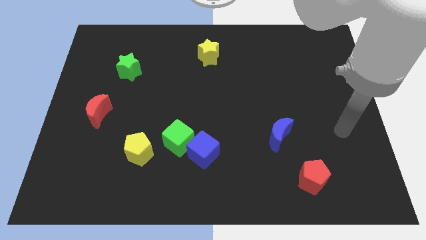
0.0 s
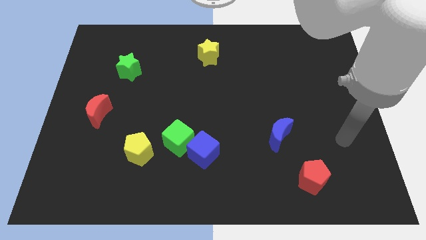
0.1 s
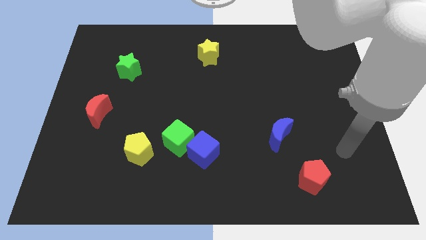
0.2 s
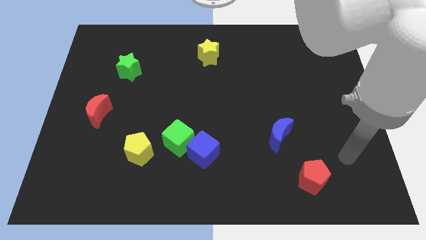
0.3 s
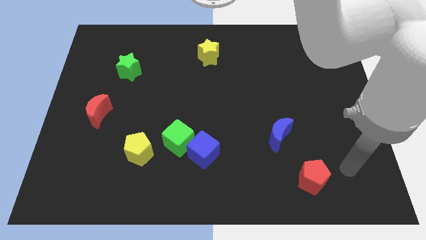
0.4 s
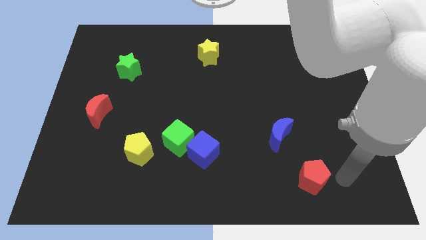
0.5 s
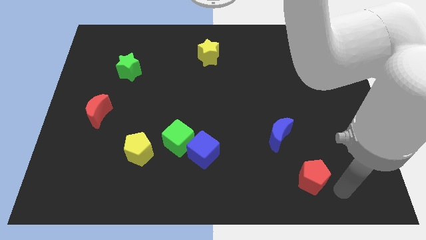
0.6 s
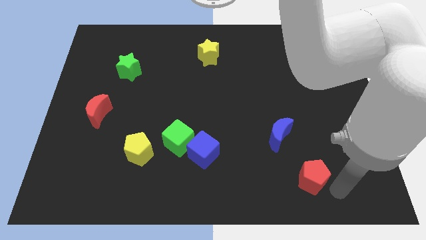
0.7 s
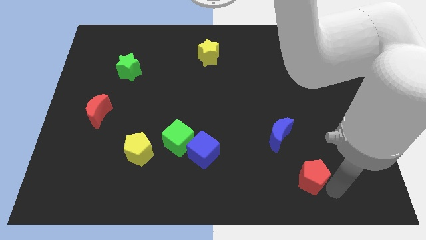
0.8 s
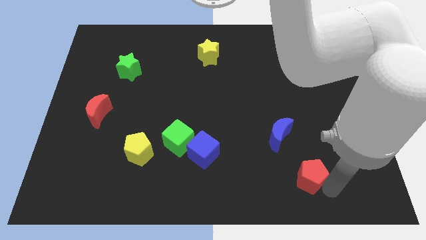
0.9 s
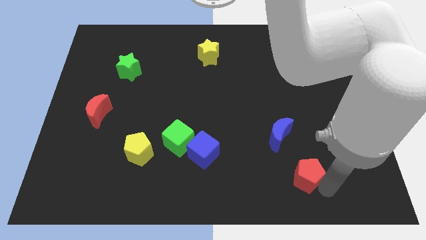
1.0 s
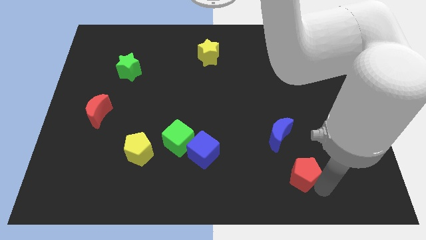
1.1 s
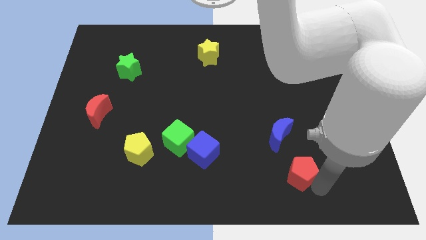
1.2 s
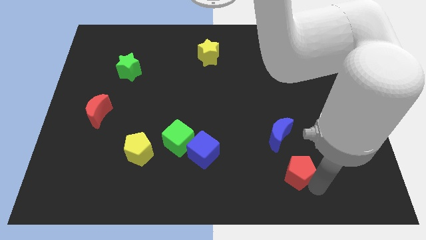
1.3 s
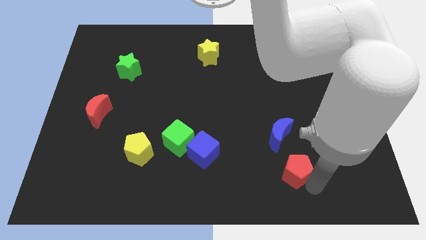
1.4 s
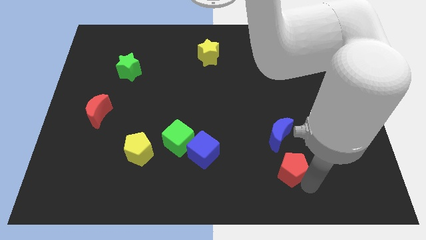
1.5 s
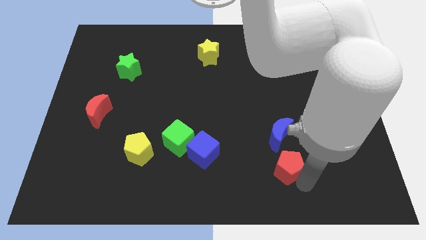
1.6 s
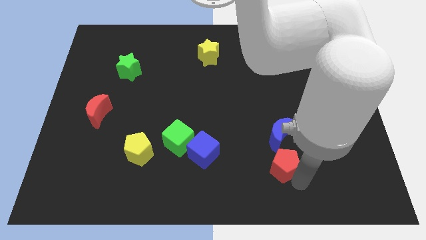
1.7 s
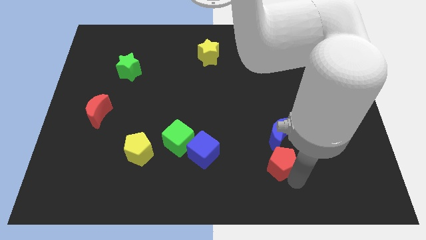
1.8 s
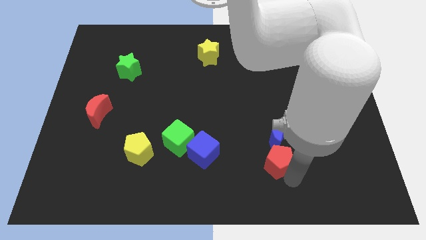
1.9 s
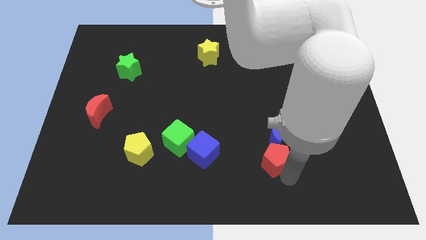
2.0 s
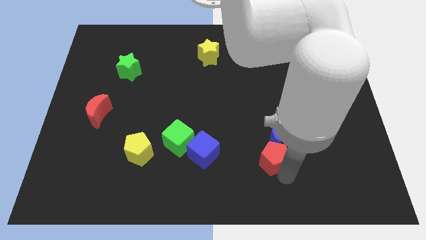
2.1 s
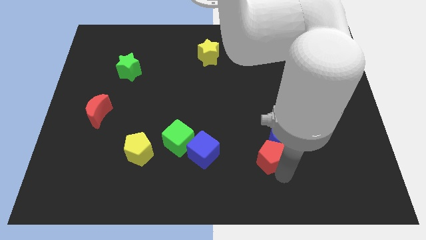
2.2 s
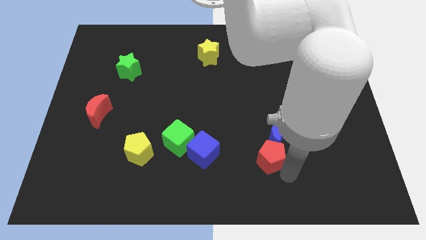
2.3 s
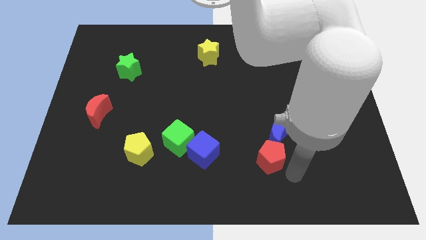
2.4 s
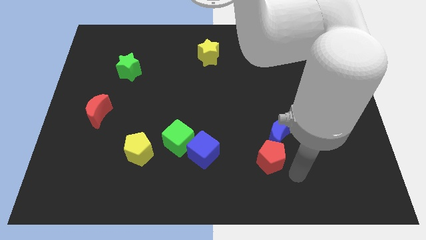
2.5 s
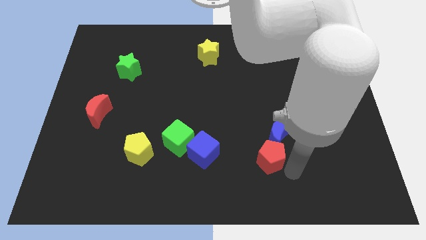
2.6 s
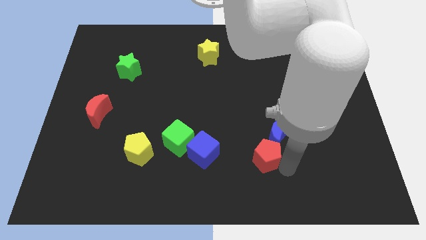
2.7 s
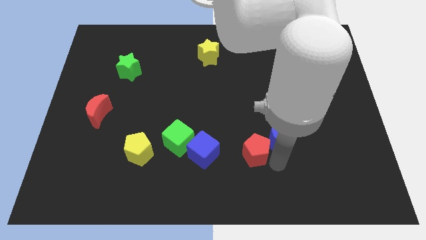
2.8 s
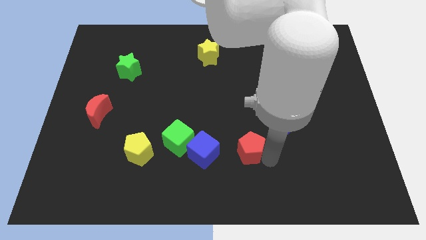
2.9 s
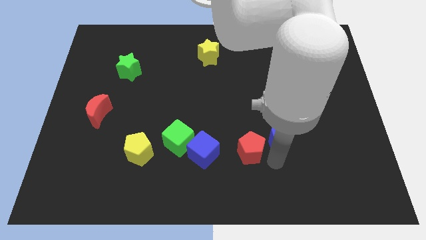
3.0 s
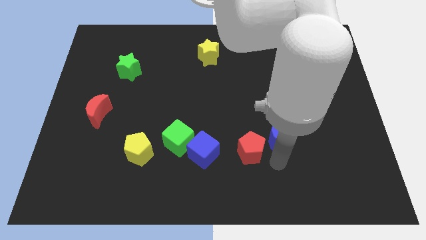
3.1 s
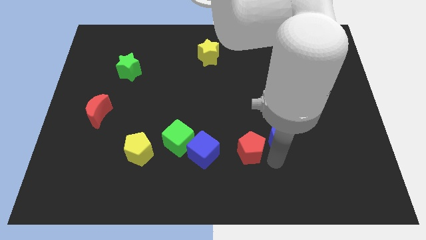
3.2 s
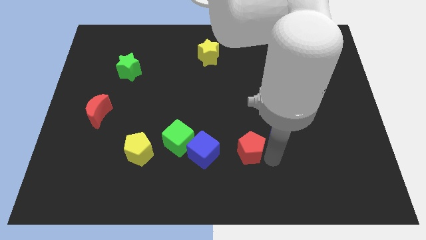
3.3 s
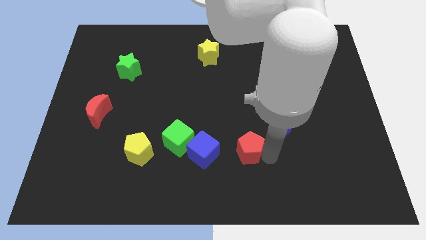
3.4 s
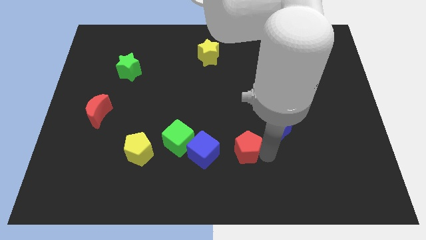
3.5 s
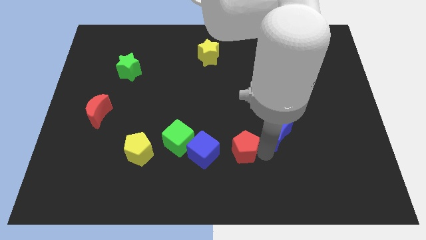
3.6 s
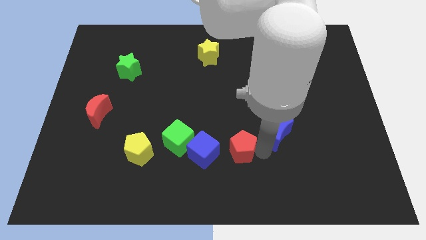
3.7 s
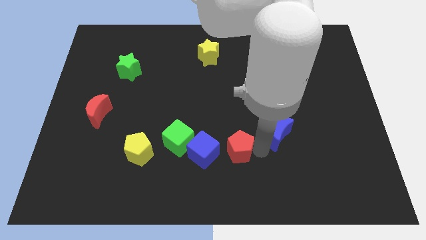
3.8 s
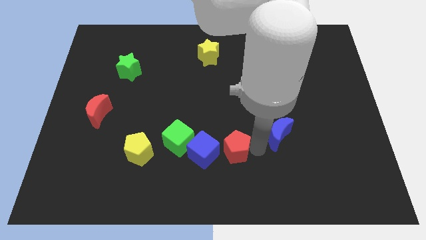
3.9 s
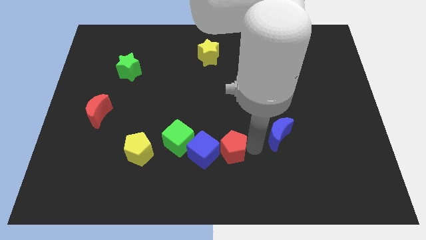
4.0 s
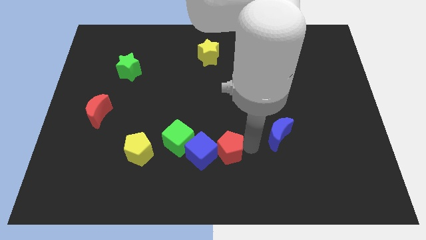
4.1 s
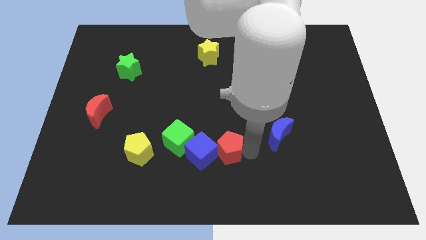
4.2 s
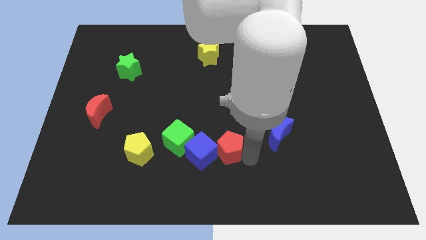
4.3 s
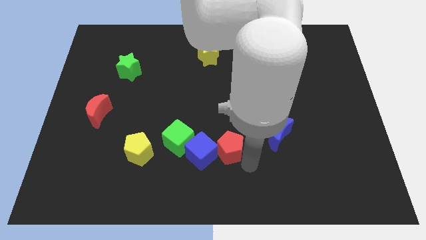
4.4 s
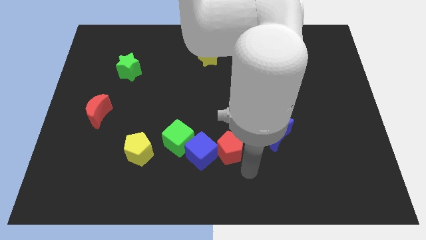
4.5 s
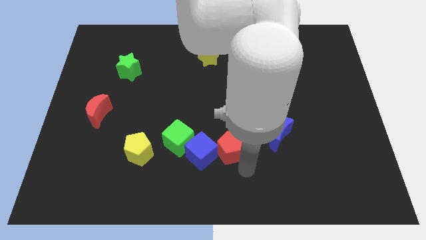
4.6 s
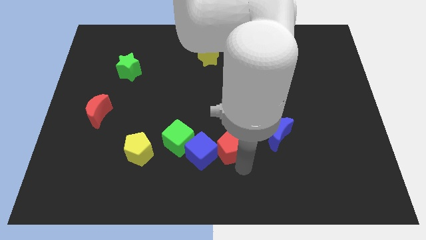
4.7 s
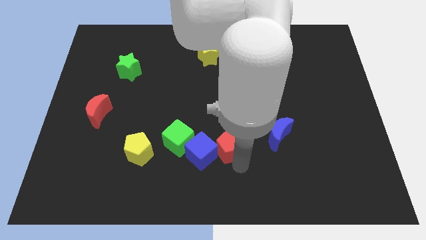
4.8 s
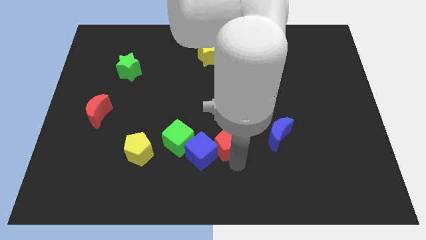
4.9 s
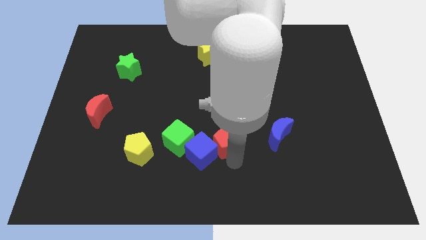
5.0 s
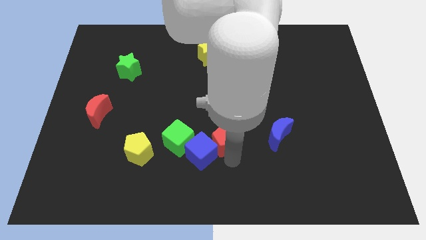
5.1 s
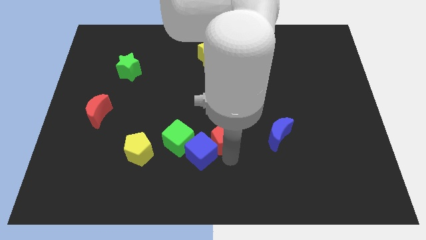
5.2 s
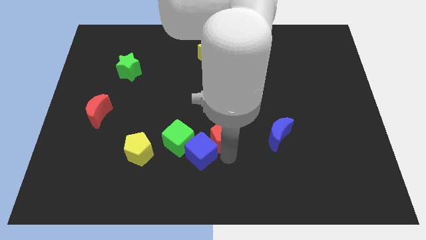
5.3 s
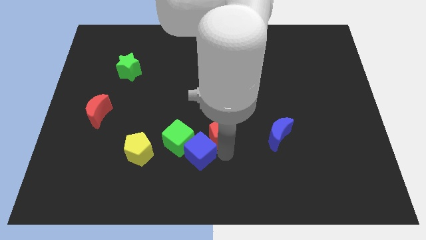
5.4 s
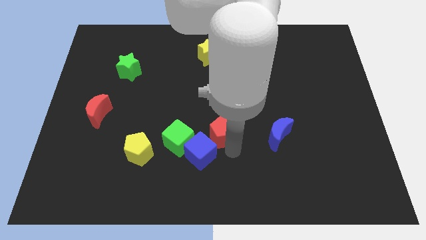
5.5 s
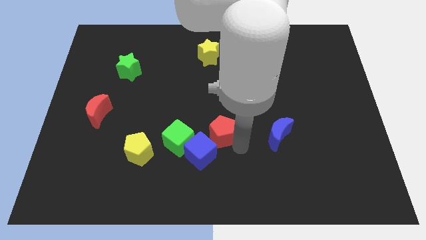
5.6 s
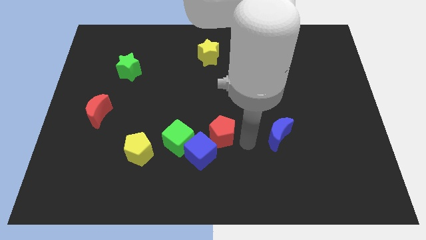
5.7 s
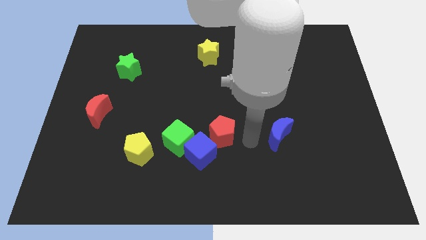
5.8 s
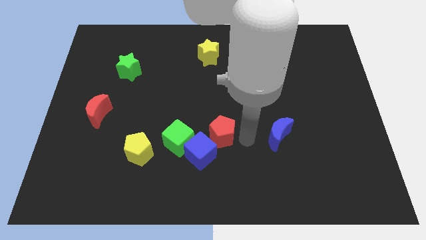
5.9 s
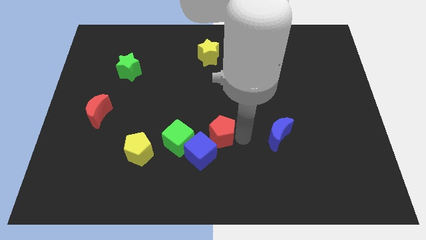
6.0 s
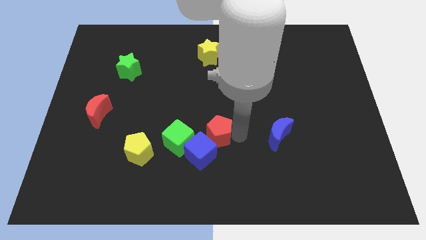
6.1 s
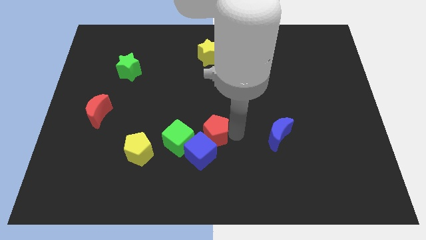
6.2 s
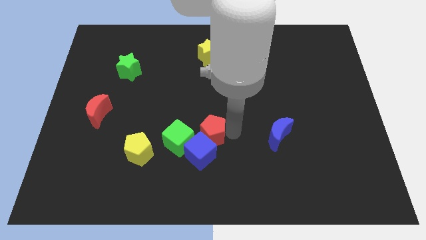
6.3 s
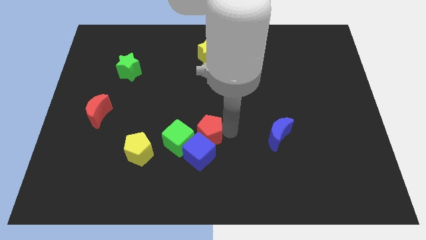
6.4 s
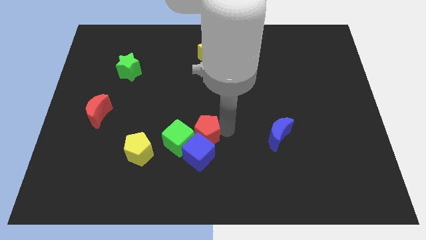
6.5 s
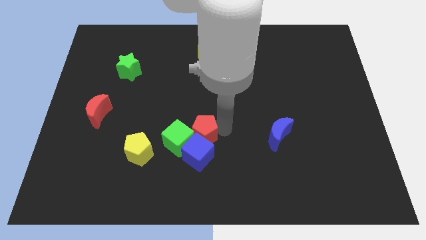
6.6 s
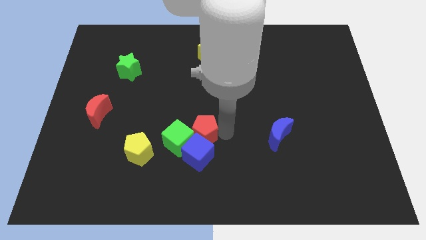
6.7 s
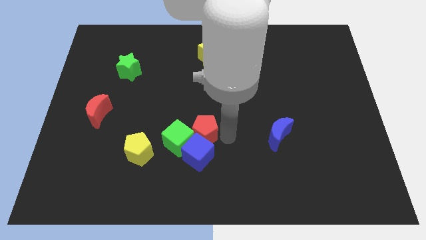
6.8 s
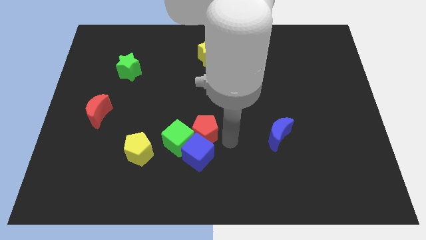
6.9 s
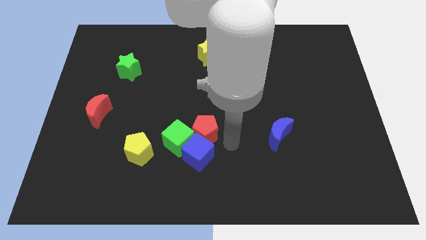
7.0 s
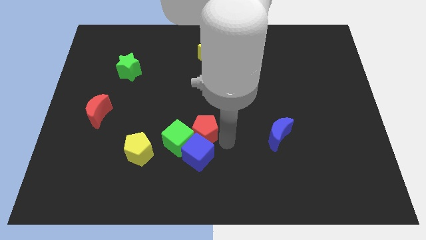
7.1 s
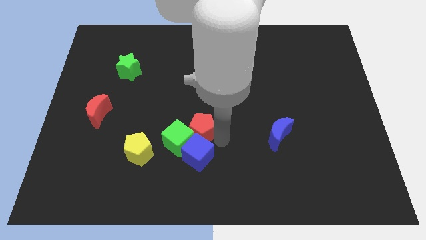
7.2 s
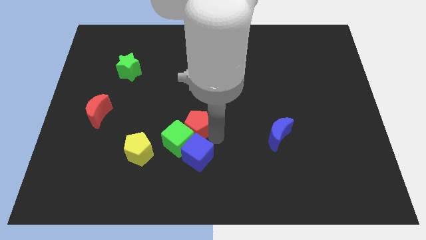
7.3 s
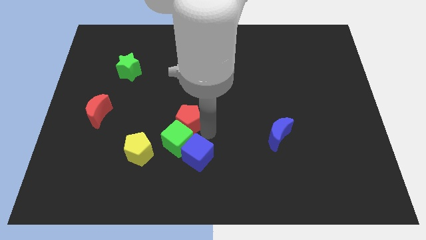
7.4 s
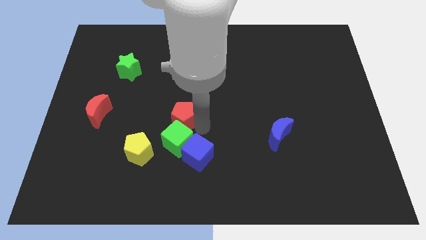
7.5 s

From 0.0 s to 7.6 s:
move the red pentagon diagonally up and to the left of the green cube

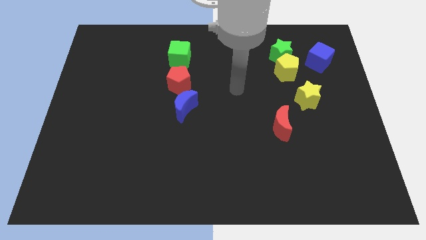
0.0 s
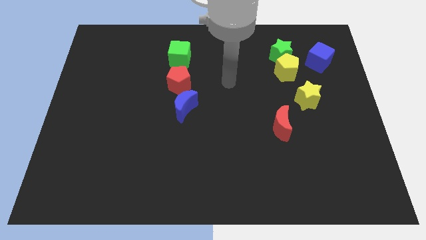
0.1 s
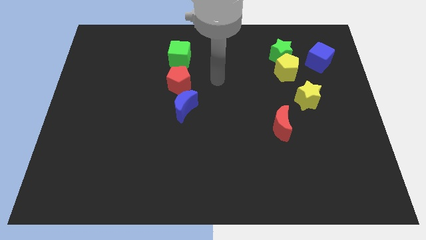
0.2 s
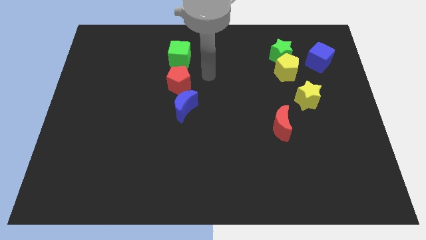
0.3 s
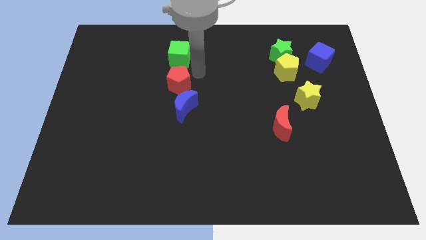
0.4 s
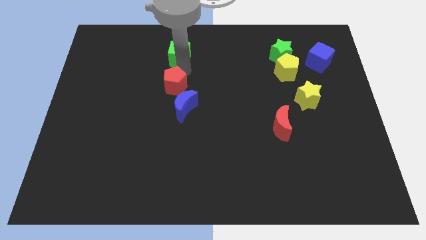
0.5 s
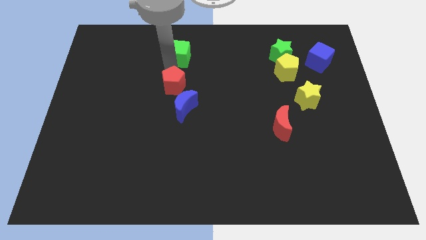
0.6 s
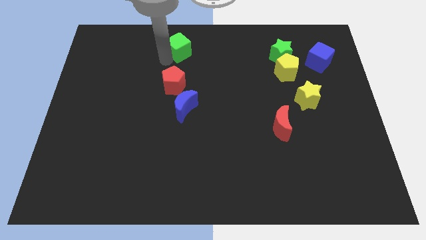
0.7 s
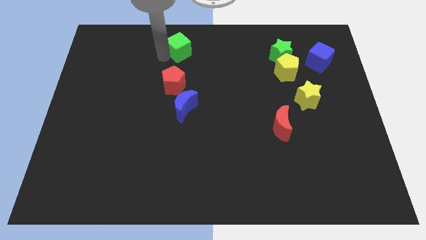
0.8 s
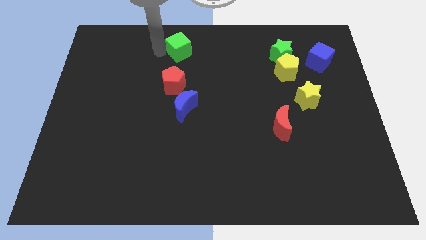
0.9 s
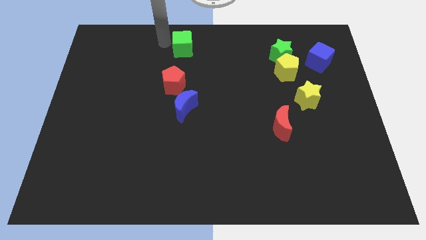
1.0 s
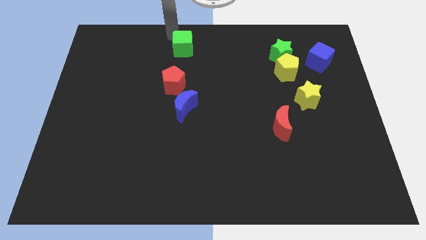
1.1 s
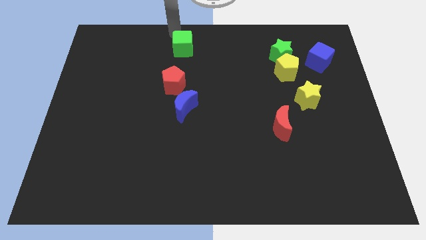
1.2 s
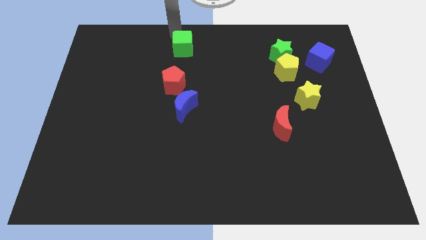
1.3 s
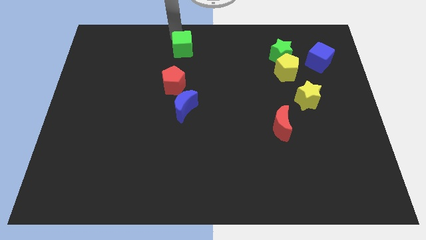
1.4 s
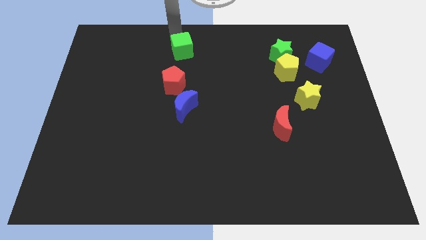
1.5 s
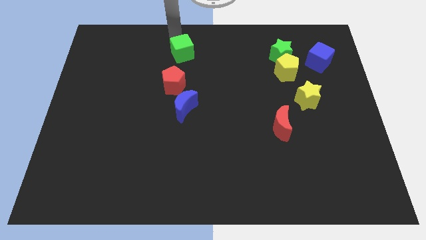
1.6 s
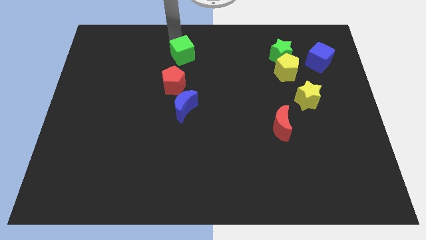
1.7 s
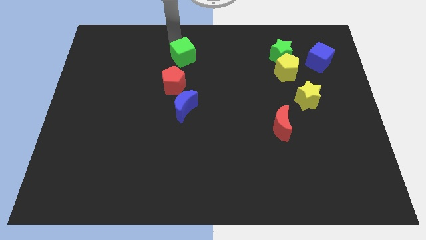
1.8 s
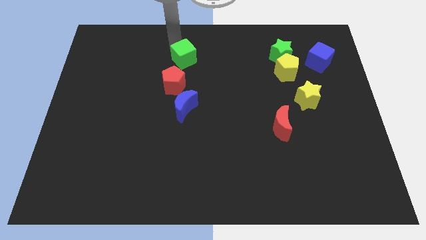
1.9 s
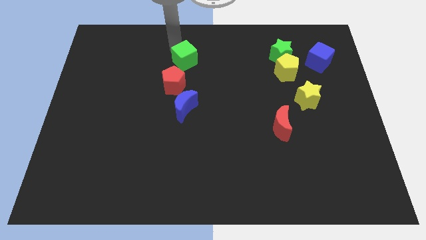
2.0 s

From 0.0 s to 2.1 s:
push the green cube diagonally up and to the right of the red pentagon
